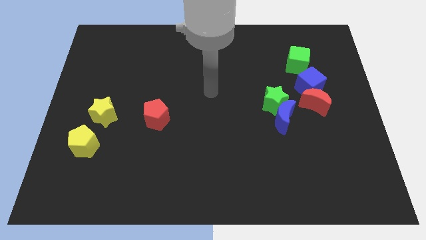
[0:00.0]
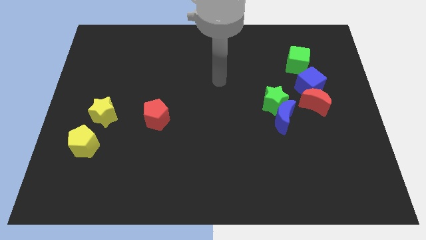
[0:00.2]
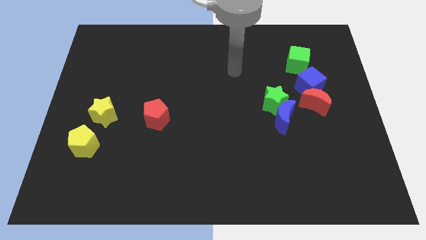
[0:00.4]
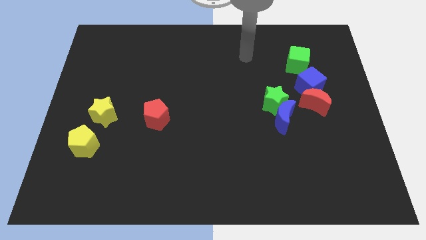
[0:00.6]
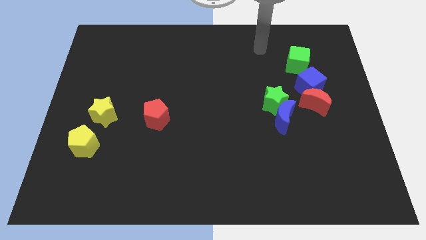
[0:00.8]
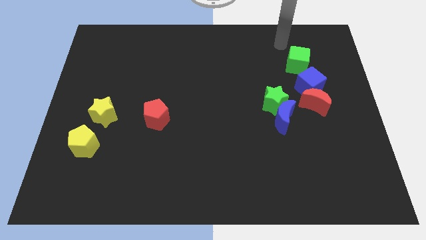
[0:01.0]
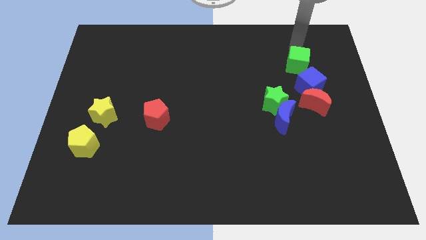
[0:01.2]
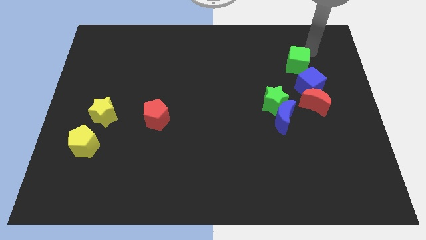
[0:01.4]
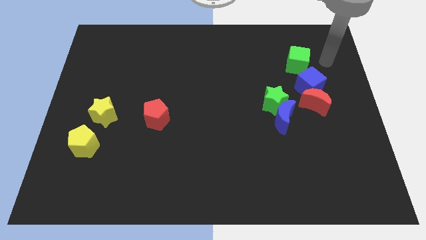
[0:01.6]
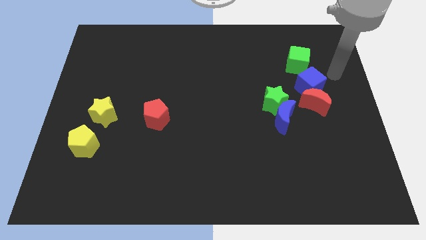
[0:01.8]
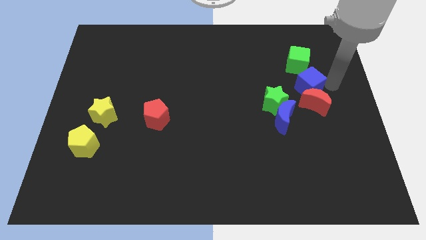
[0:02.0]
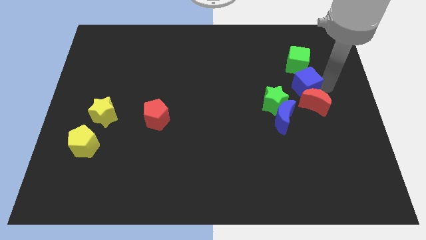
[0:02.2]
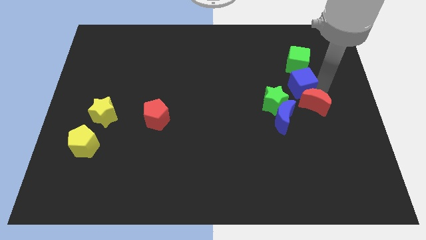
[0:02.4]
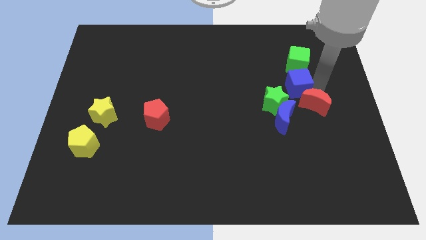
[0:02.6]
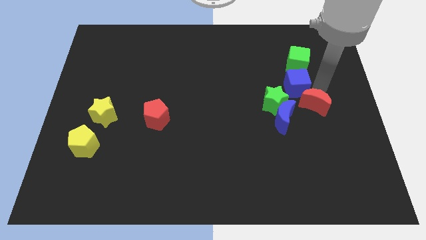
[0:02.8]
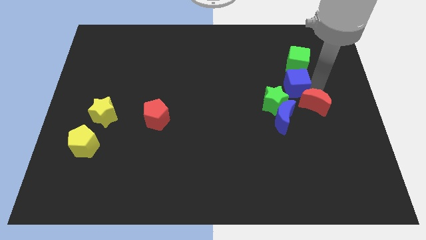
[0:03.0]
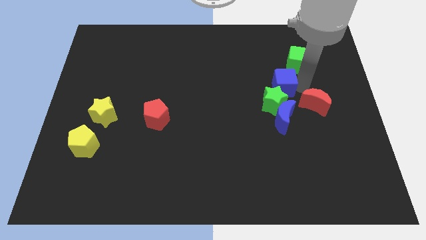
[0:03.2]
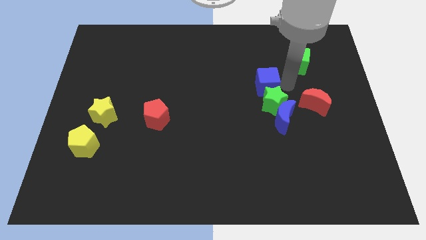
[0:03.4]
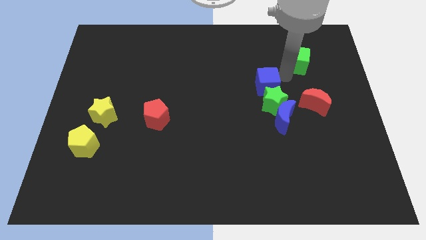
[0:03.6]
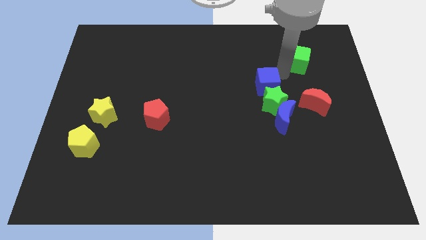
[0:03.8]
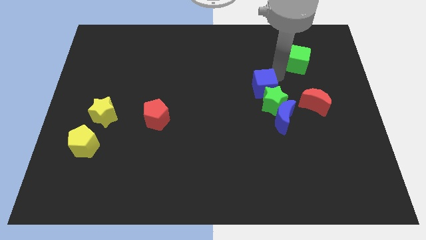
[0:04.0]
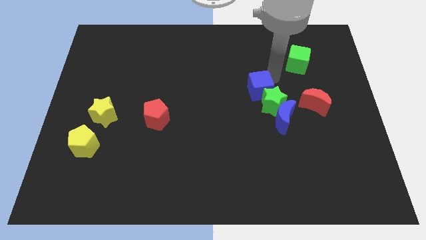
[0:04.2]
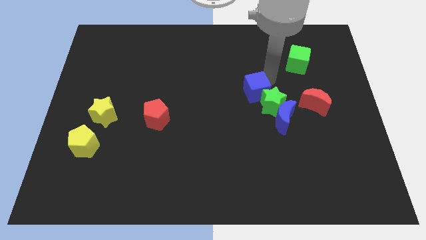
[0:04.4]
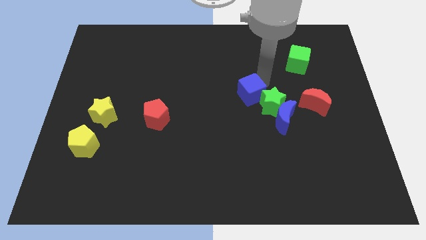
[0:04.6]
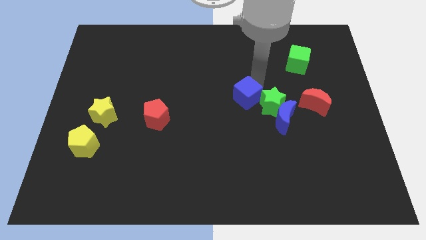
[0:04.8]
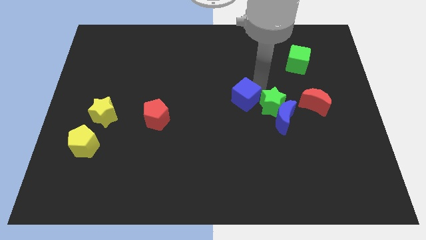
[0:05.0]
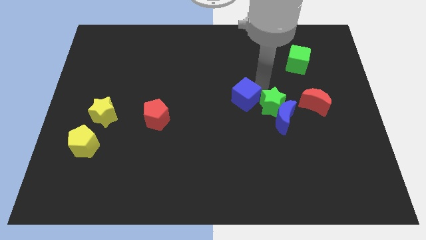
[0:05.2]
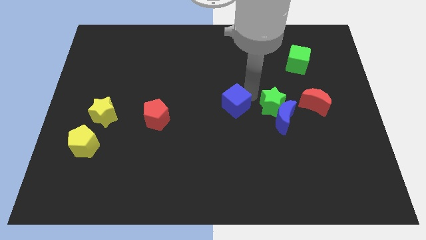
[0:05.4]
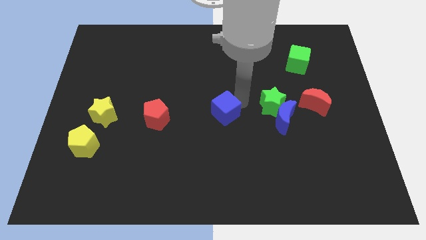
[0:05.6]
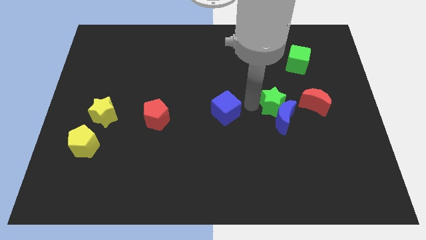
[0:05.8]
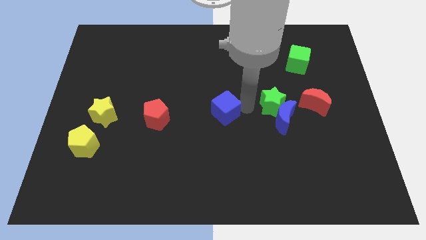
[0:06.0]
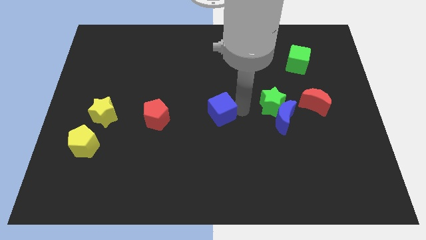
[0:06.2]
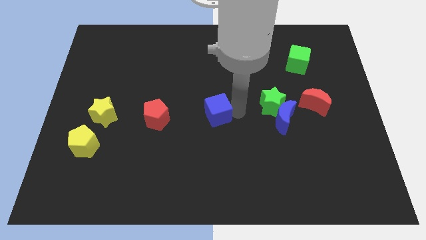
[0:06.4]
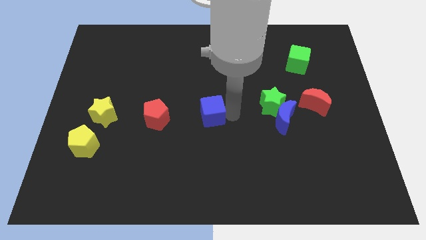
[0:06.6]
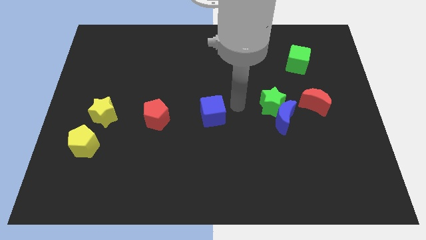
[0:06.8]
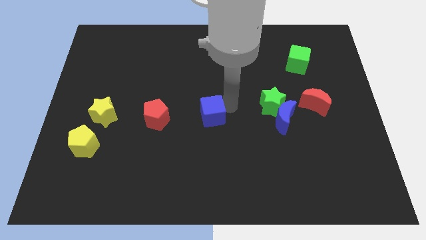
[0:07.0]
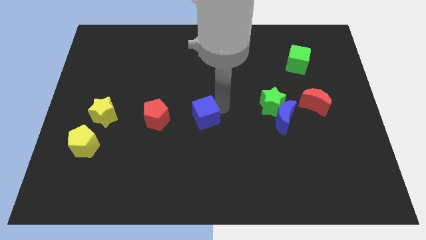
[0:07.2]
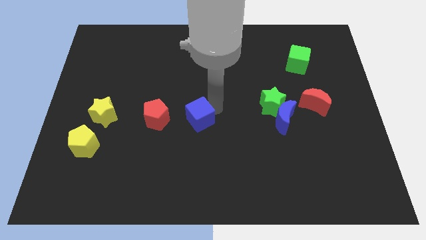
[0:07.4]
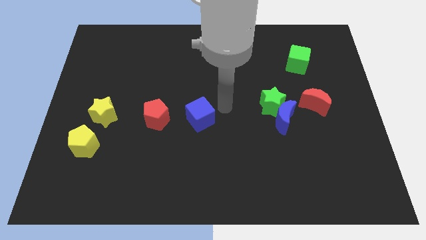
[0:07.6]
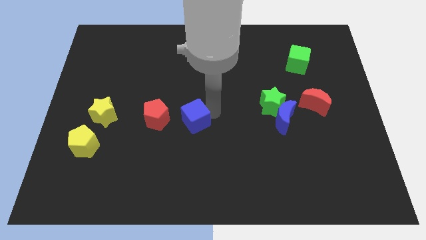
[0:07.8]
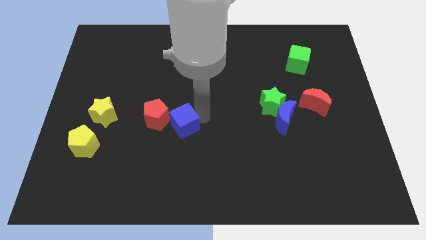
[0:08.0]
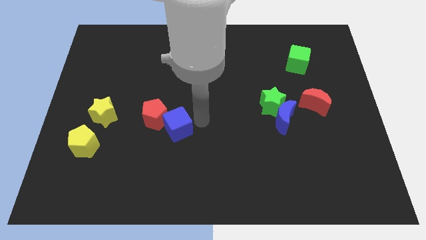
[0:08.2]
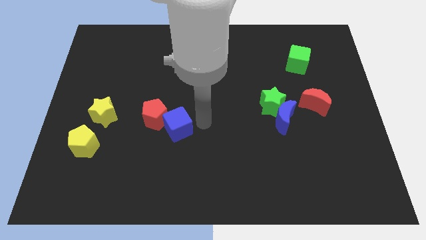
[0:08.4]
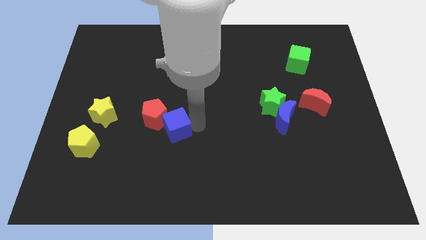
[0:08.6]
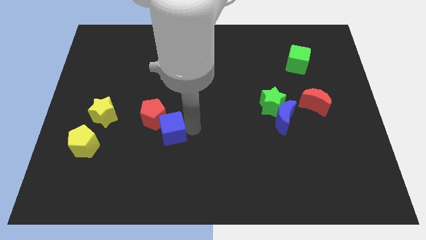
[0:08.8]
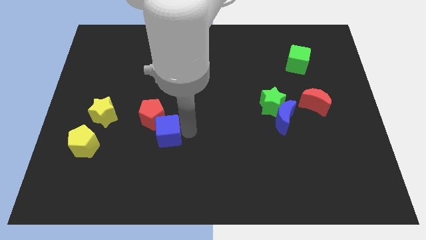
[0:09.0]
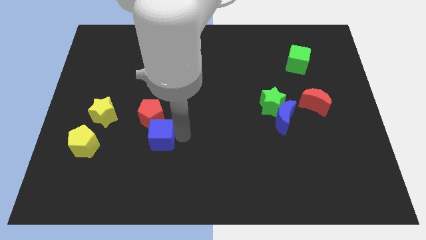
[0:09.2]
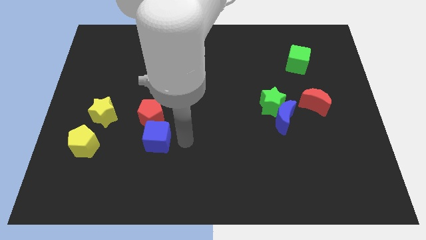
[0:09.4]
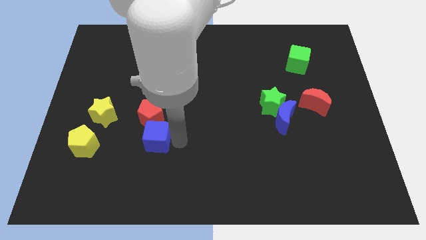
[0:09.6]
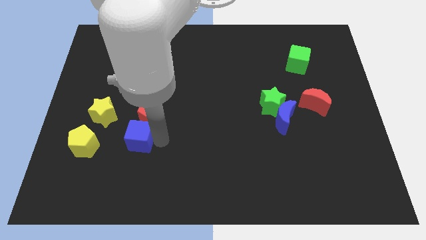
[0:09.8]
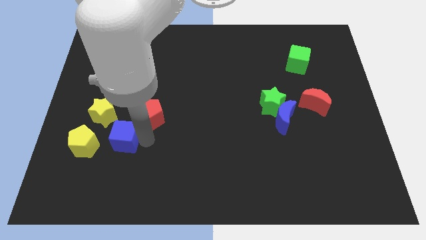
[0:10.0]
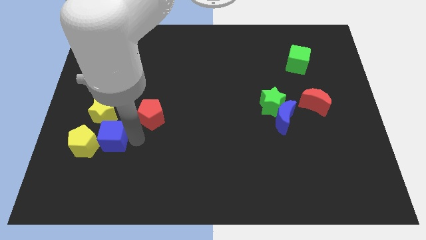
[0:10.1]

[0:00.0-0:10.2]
push the blue cube close to the yellow pentagon

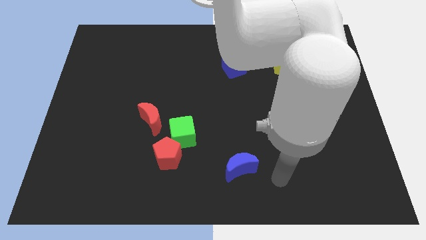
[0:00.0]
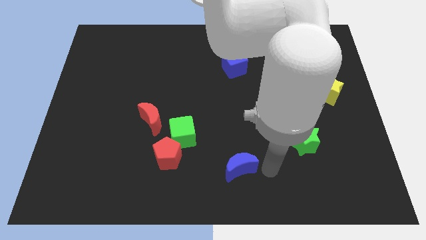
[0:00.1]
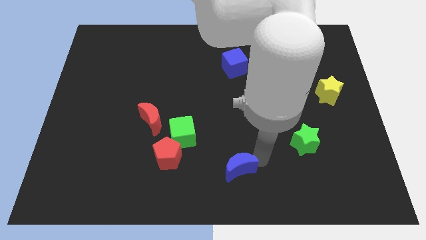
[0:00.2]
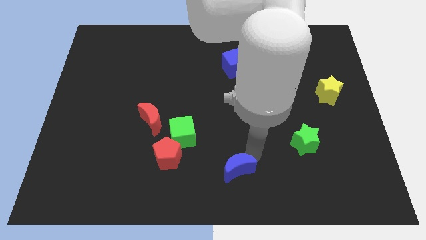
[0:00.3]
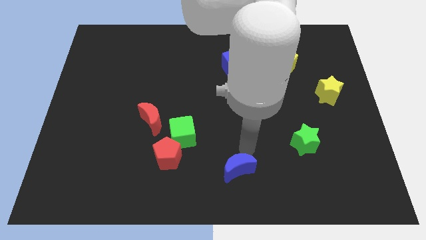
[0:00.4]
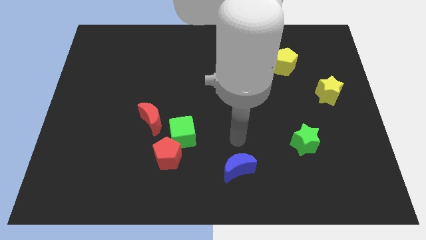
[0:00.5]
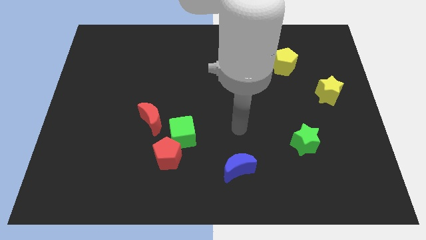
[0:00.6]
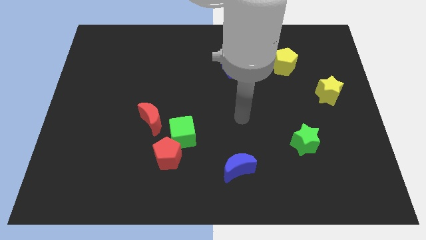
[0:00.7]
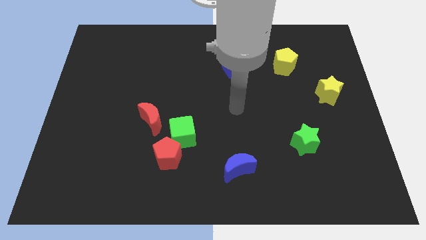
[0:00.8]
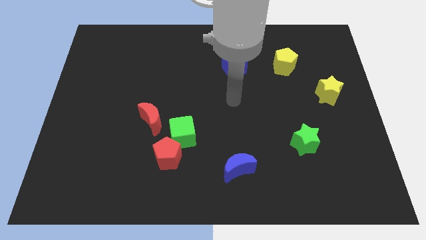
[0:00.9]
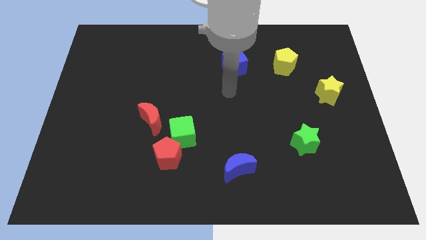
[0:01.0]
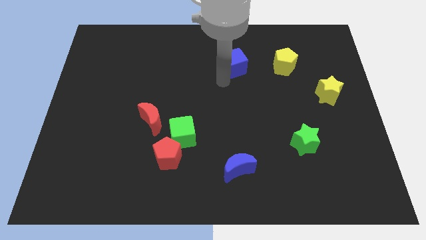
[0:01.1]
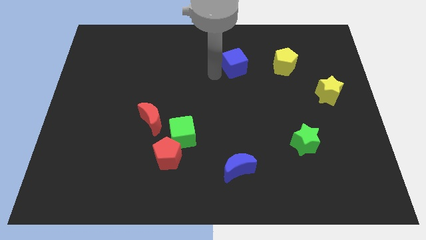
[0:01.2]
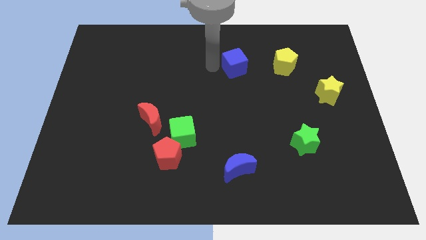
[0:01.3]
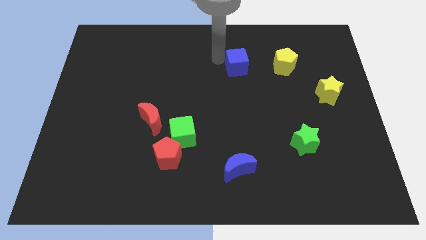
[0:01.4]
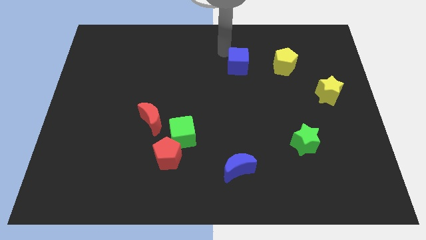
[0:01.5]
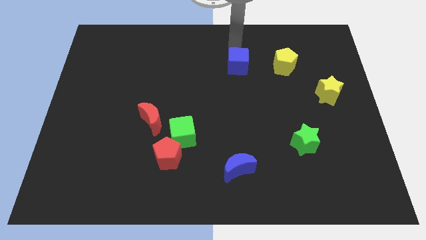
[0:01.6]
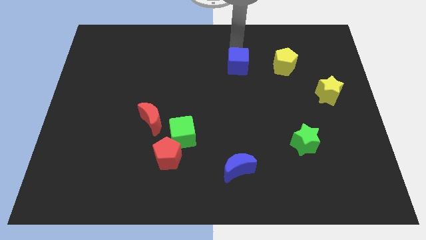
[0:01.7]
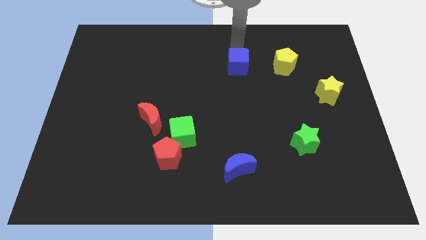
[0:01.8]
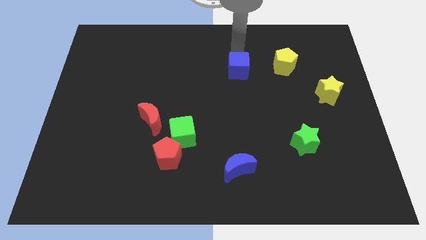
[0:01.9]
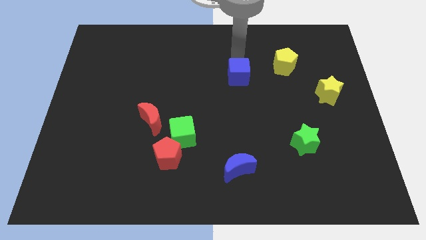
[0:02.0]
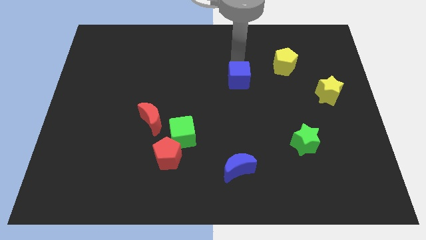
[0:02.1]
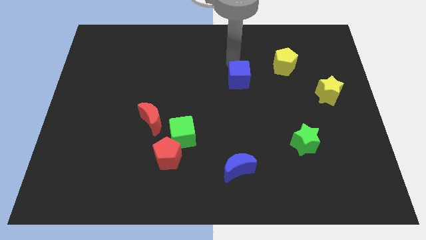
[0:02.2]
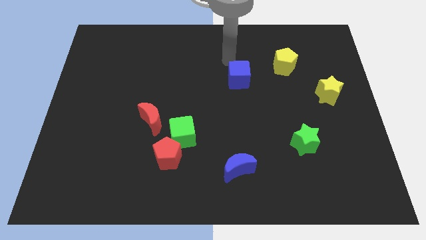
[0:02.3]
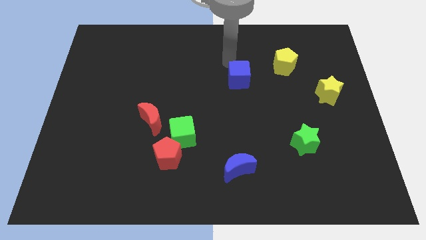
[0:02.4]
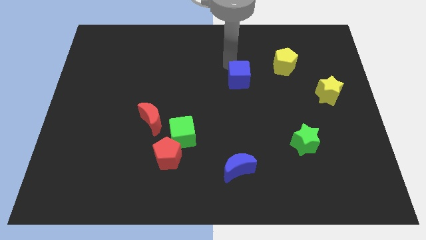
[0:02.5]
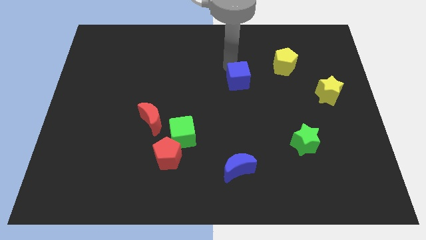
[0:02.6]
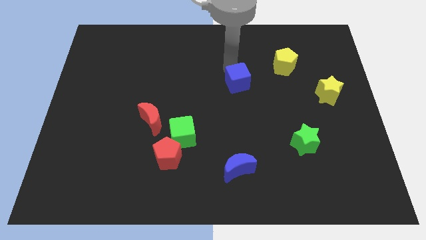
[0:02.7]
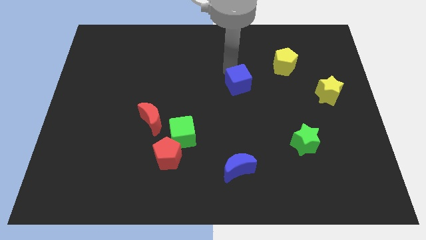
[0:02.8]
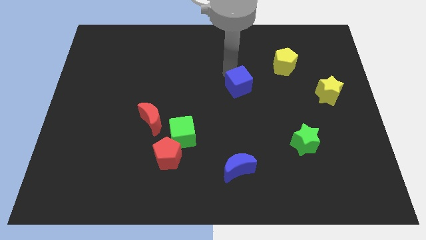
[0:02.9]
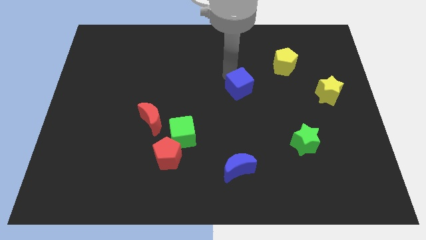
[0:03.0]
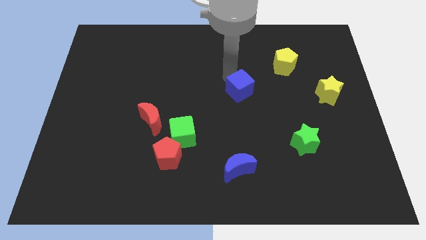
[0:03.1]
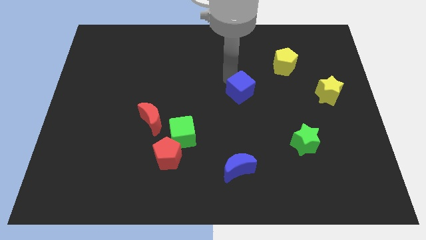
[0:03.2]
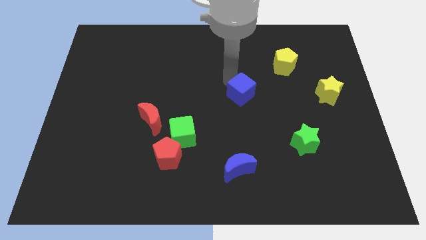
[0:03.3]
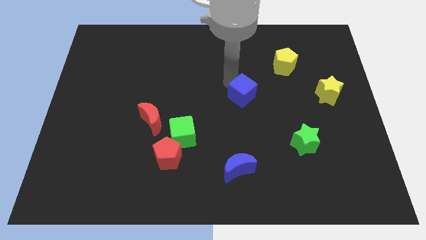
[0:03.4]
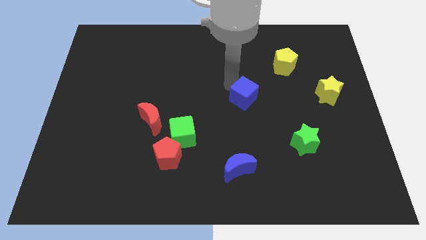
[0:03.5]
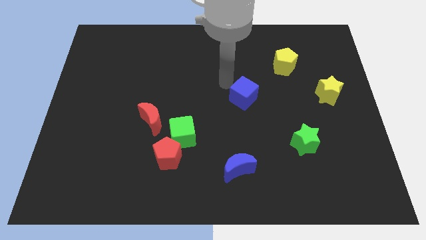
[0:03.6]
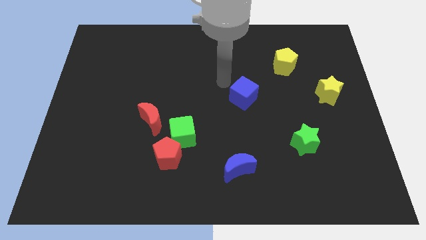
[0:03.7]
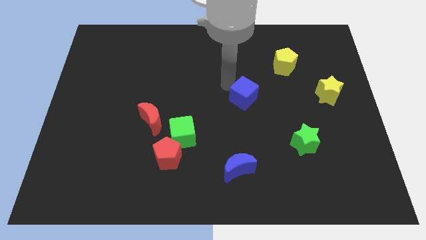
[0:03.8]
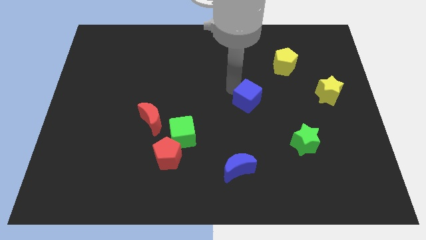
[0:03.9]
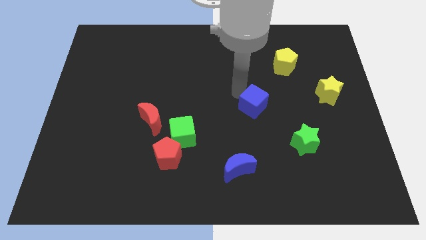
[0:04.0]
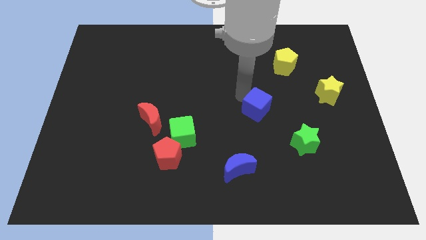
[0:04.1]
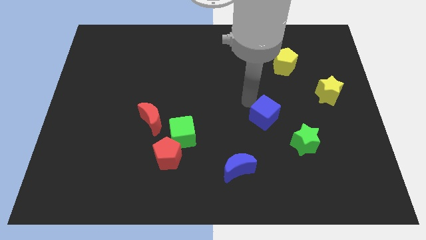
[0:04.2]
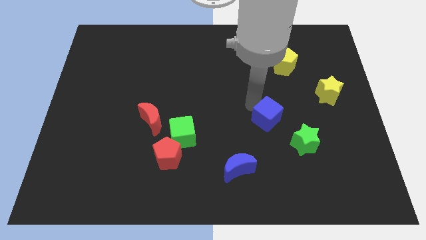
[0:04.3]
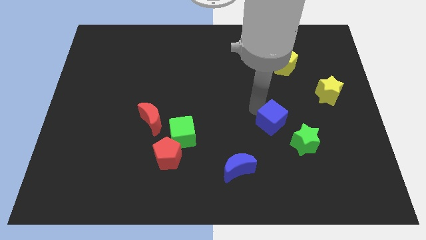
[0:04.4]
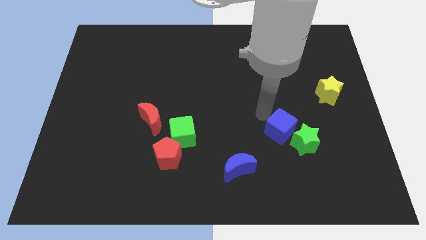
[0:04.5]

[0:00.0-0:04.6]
put the blue cube next to the green star
